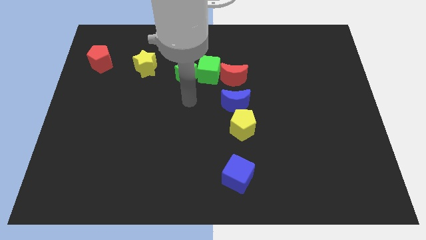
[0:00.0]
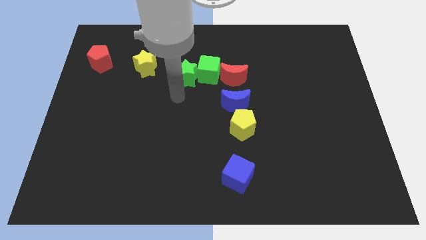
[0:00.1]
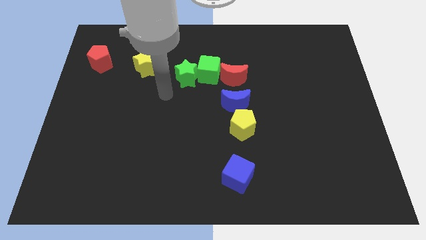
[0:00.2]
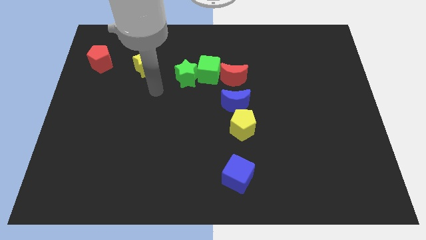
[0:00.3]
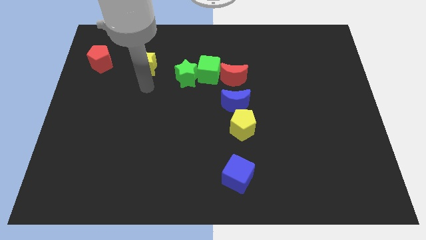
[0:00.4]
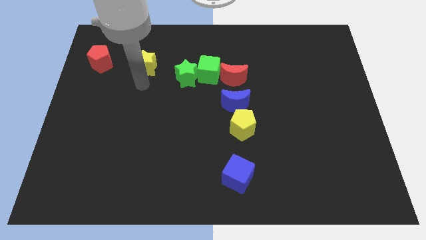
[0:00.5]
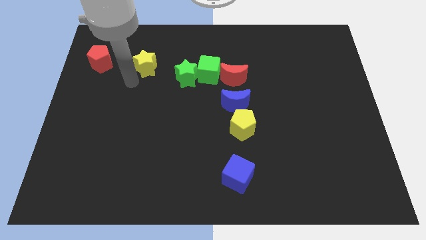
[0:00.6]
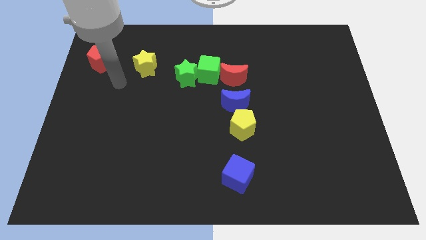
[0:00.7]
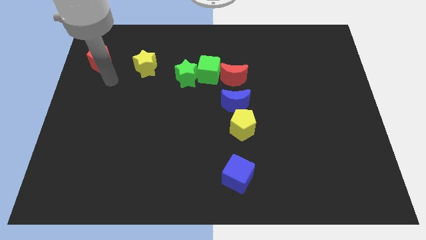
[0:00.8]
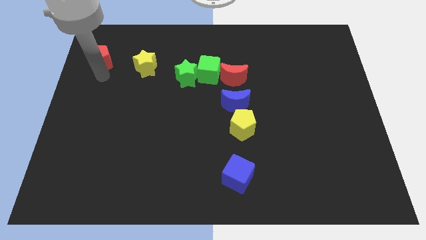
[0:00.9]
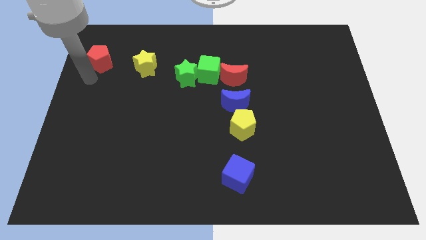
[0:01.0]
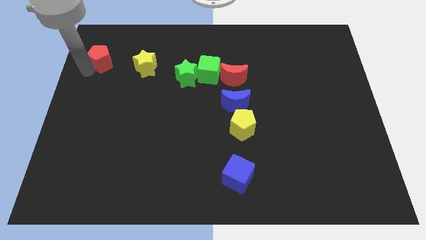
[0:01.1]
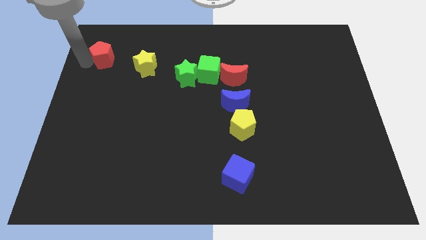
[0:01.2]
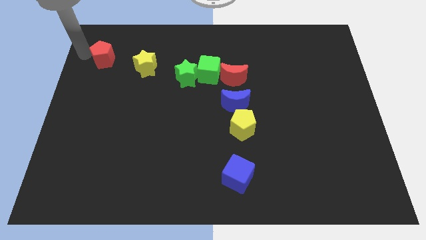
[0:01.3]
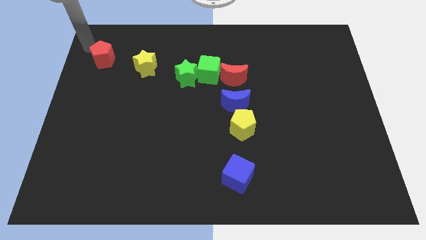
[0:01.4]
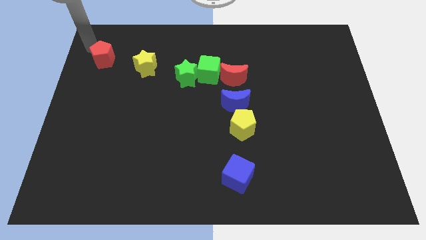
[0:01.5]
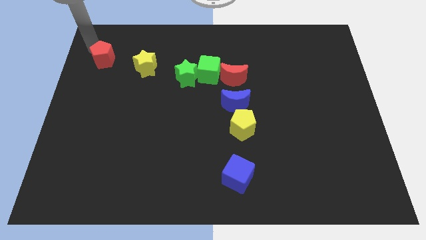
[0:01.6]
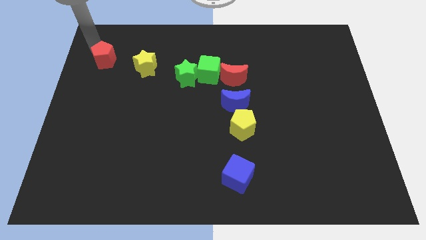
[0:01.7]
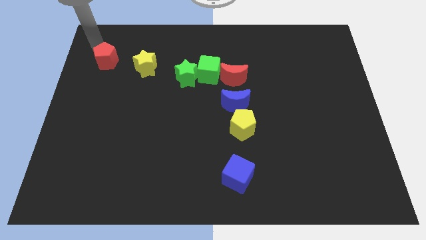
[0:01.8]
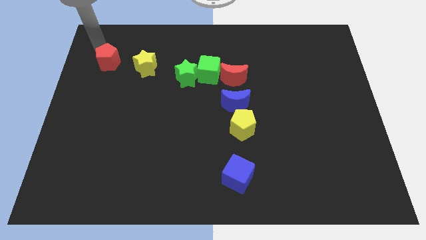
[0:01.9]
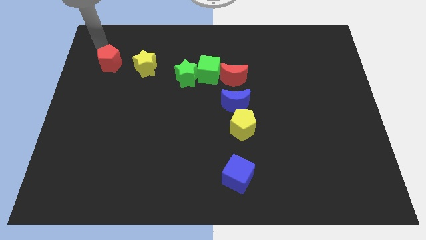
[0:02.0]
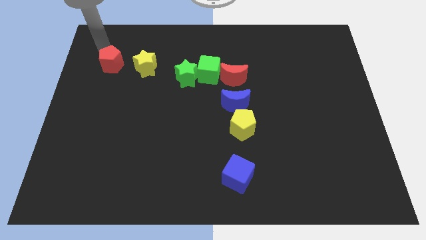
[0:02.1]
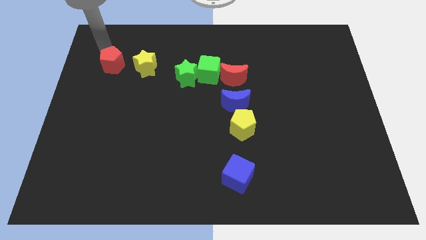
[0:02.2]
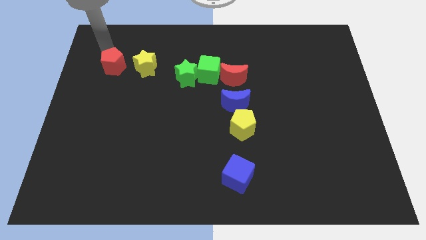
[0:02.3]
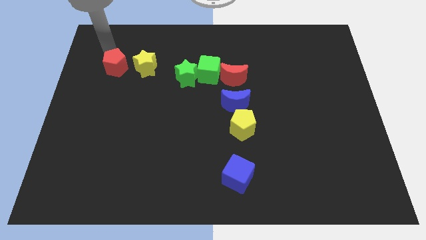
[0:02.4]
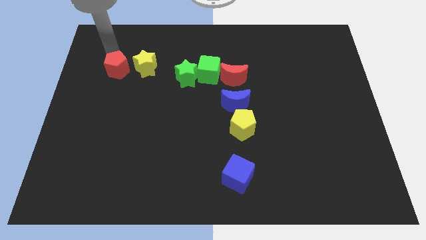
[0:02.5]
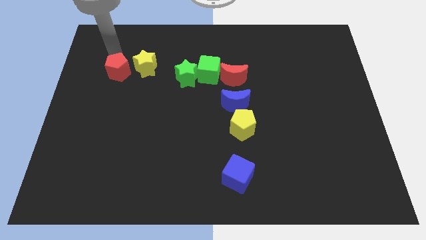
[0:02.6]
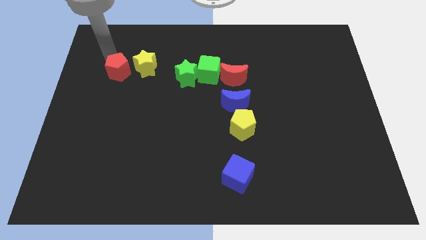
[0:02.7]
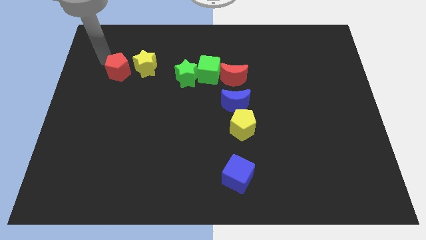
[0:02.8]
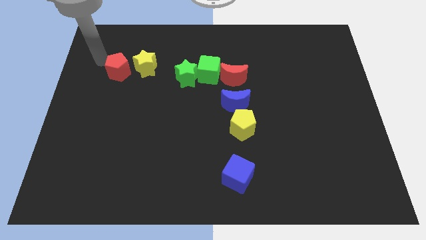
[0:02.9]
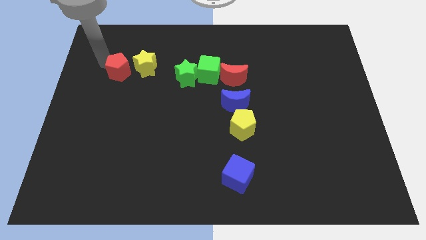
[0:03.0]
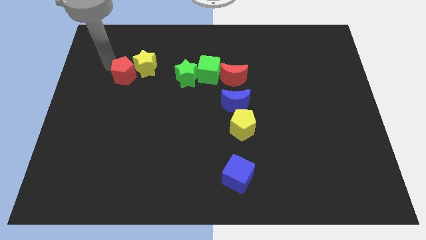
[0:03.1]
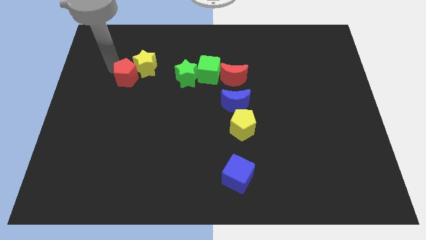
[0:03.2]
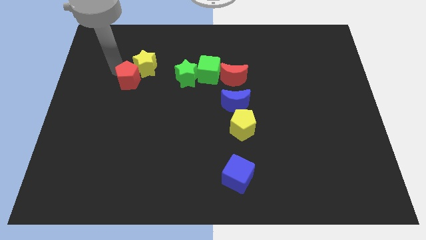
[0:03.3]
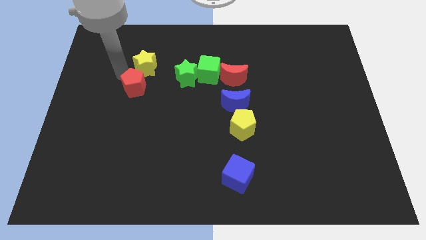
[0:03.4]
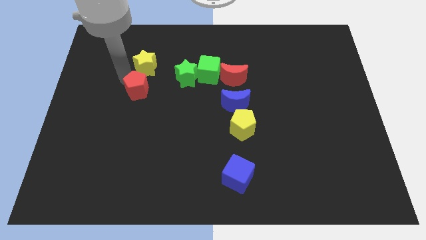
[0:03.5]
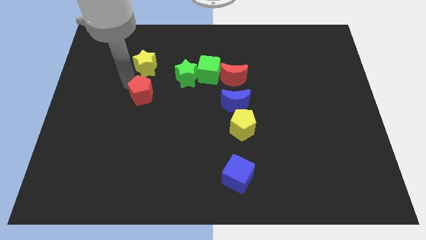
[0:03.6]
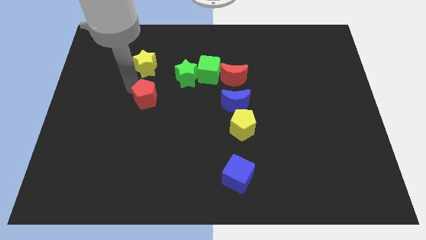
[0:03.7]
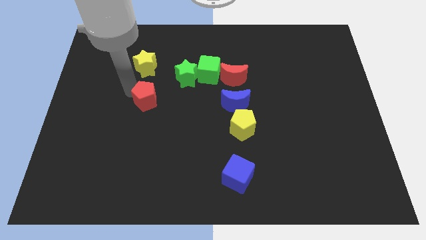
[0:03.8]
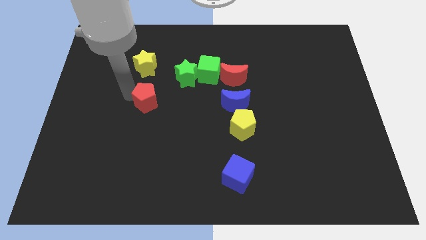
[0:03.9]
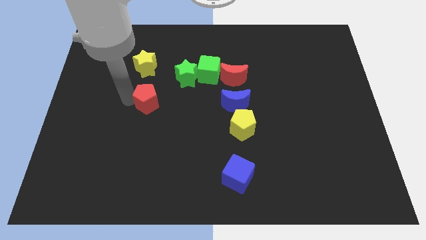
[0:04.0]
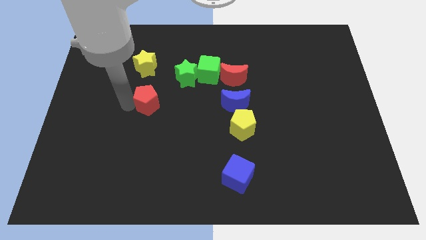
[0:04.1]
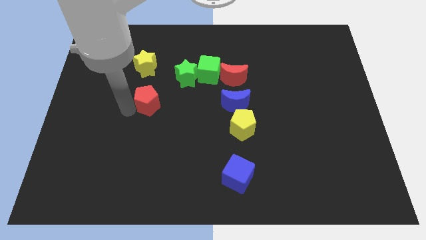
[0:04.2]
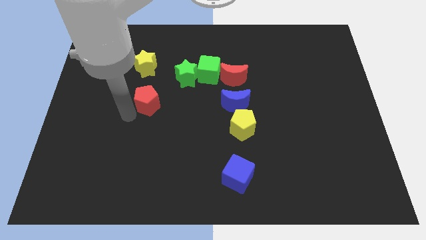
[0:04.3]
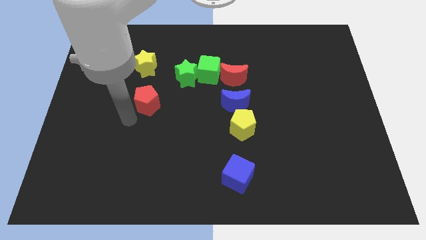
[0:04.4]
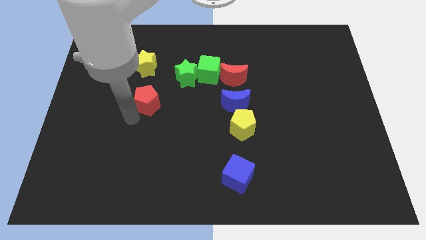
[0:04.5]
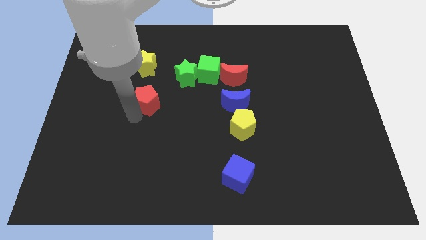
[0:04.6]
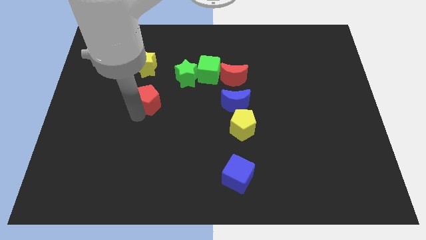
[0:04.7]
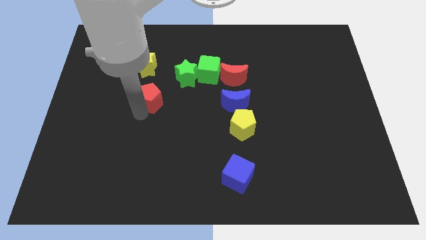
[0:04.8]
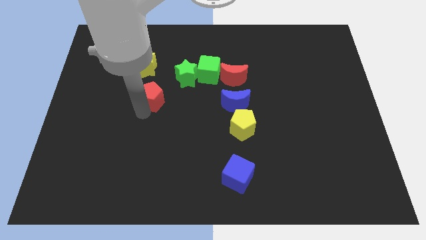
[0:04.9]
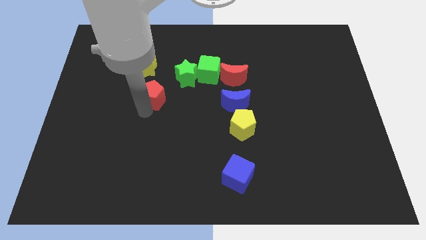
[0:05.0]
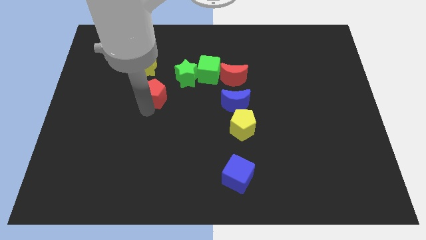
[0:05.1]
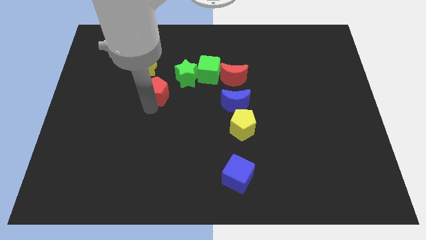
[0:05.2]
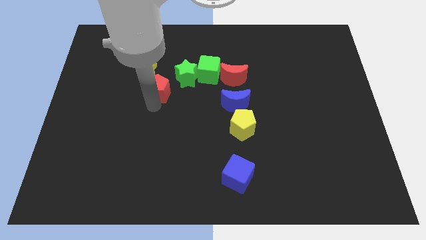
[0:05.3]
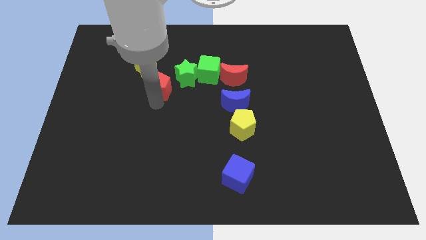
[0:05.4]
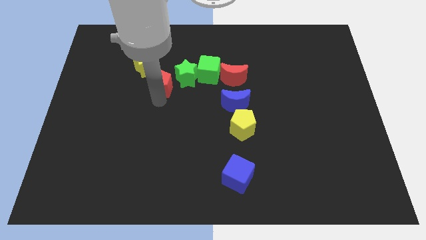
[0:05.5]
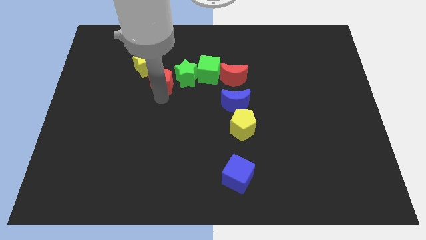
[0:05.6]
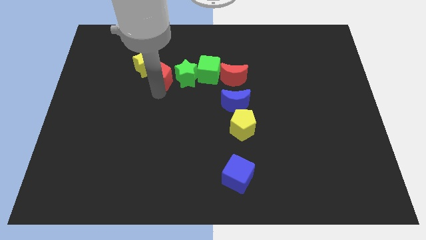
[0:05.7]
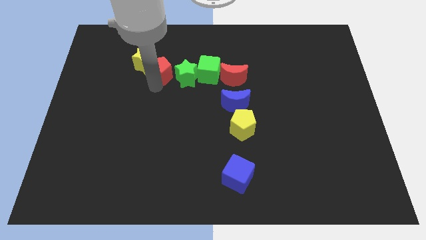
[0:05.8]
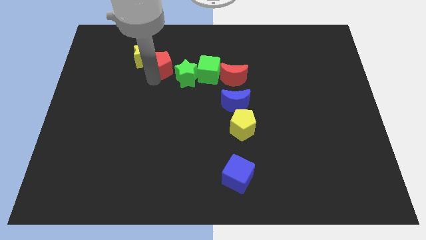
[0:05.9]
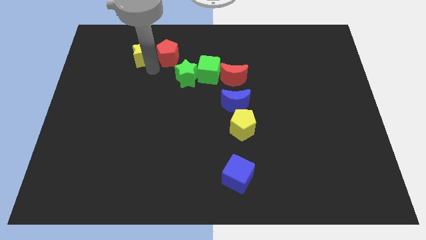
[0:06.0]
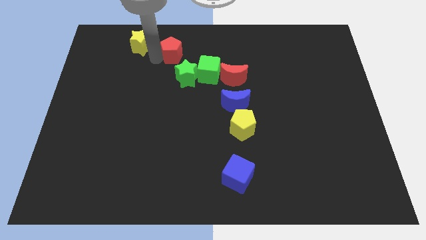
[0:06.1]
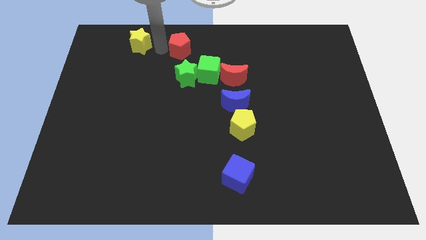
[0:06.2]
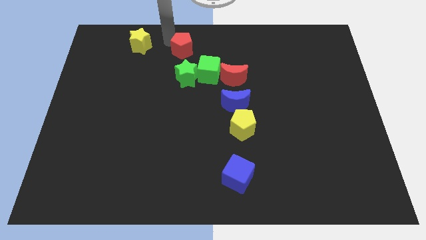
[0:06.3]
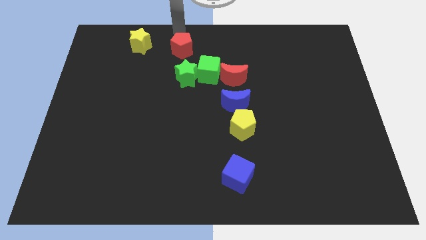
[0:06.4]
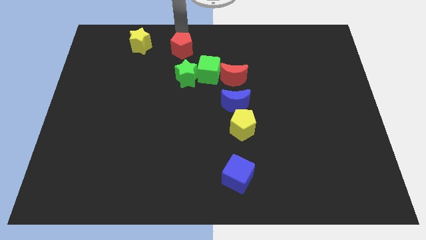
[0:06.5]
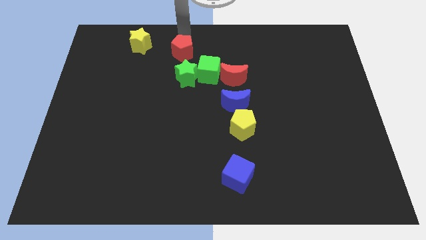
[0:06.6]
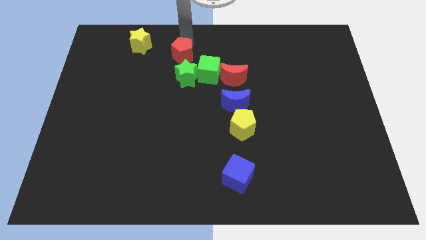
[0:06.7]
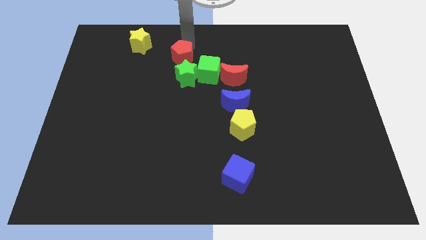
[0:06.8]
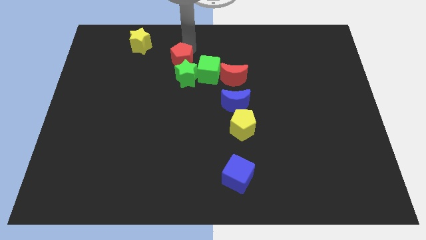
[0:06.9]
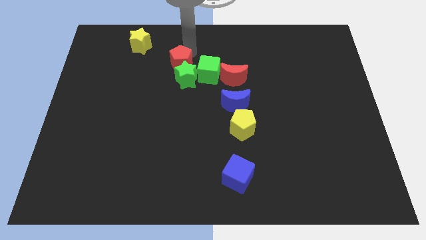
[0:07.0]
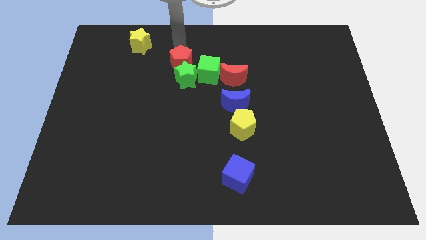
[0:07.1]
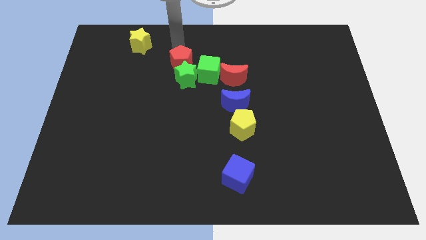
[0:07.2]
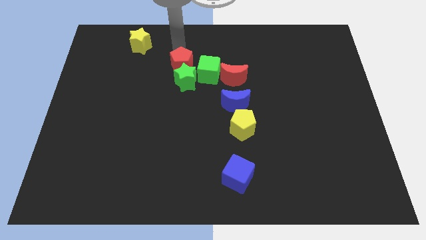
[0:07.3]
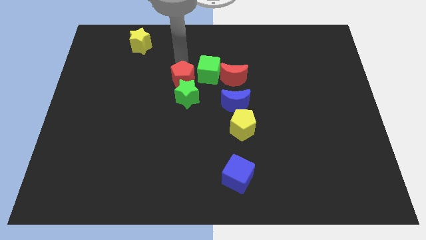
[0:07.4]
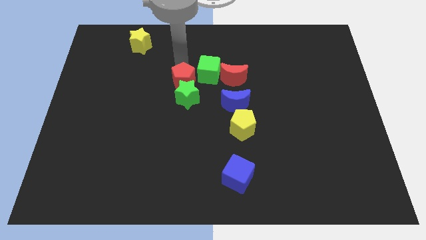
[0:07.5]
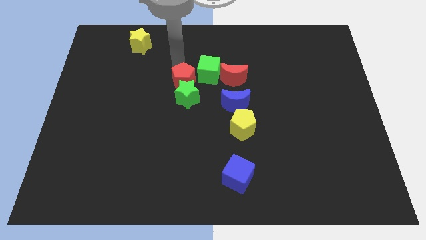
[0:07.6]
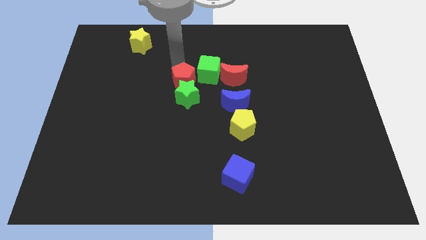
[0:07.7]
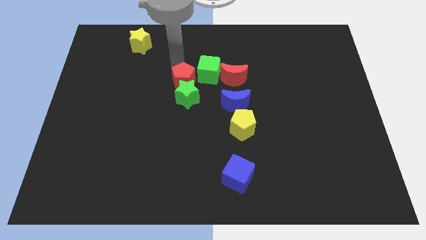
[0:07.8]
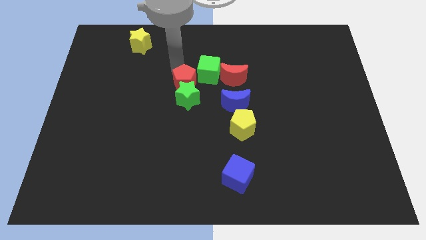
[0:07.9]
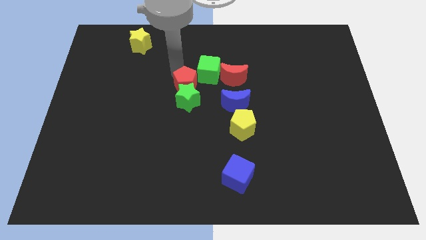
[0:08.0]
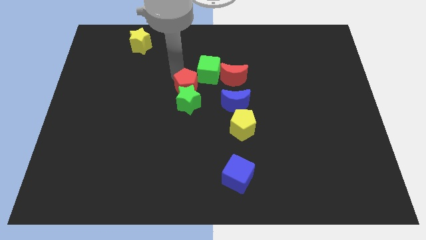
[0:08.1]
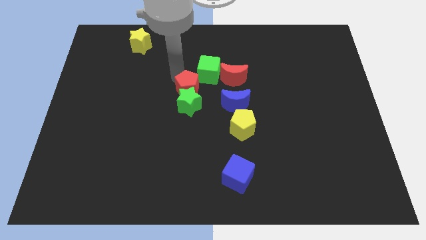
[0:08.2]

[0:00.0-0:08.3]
move the red pentagon to the left side of the blue moon
